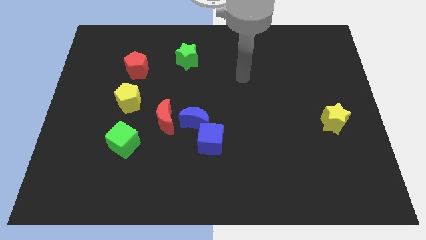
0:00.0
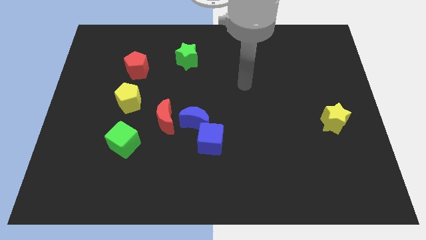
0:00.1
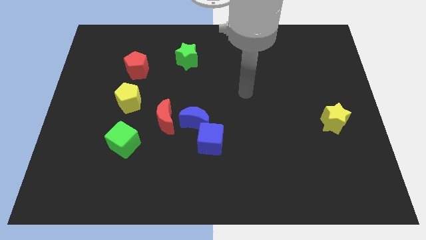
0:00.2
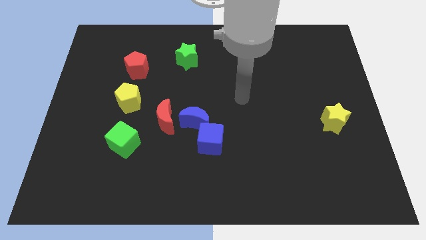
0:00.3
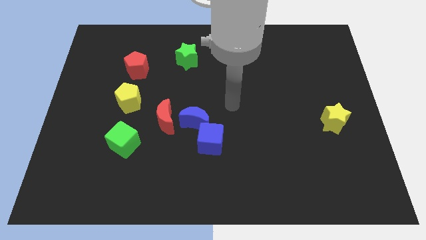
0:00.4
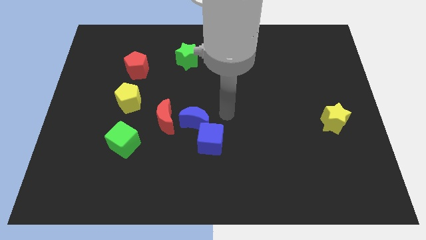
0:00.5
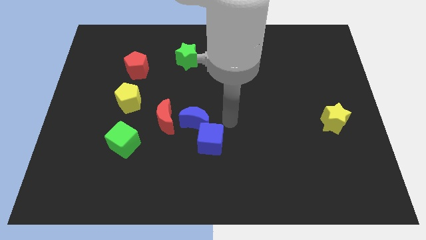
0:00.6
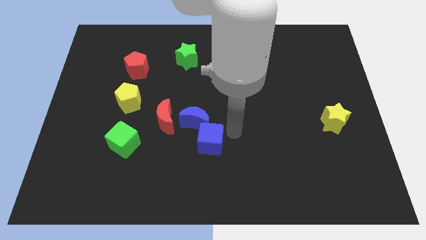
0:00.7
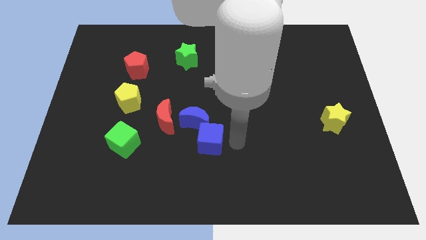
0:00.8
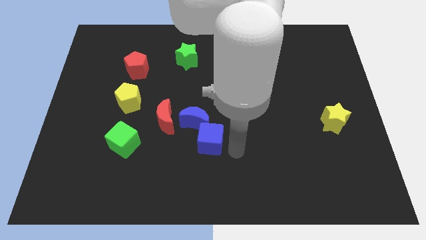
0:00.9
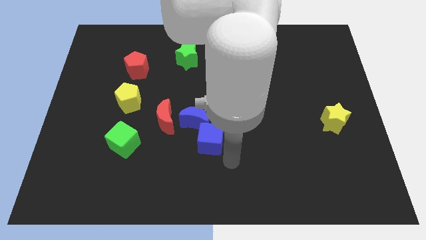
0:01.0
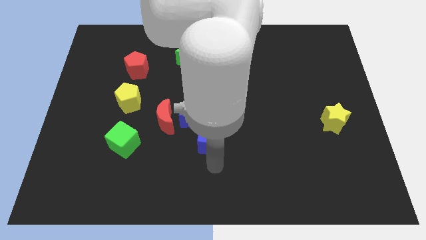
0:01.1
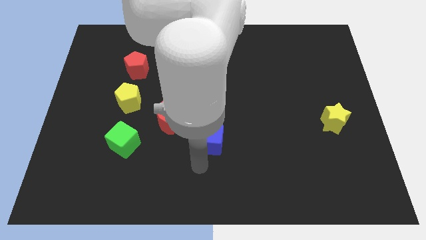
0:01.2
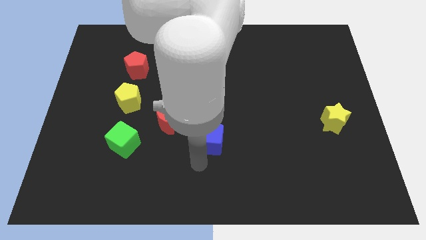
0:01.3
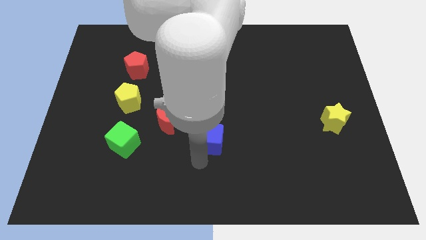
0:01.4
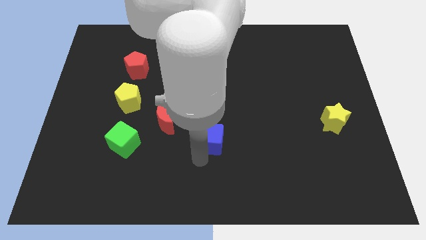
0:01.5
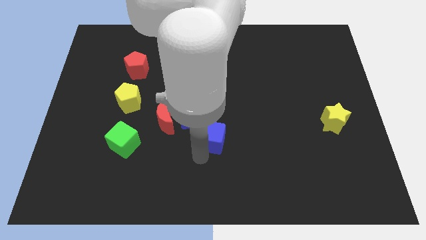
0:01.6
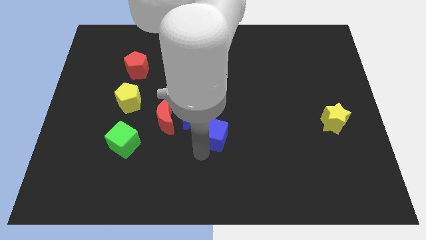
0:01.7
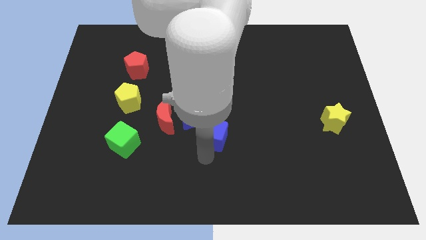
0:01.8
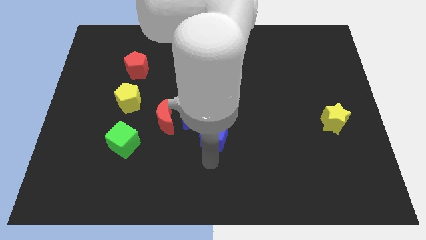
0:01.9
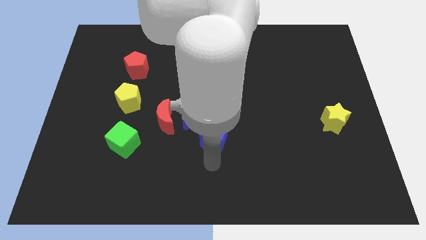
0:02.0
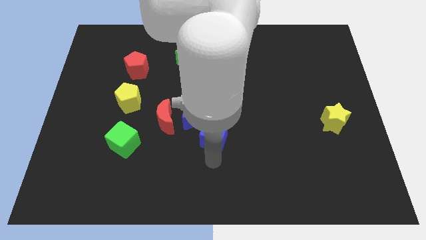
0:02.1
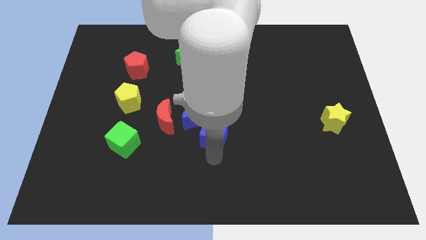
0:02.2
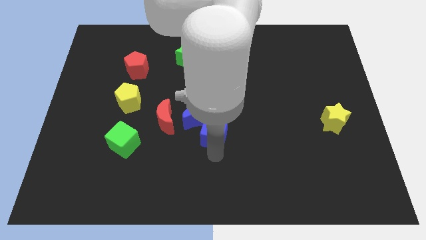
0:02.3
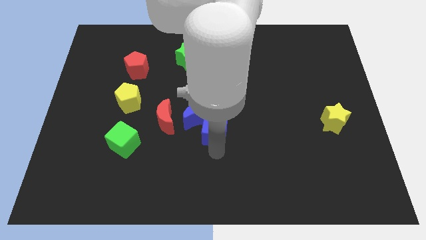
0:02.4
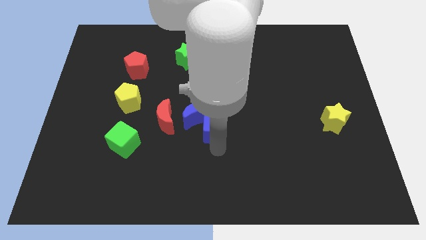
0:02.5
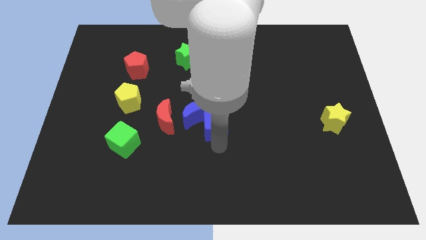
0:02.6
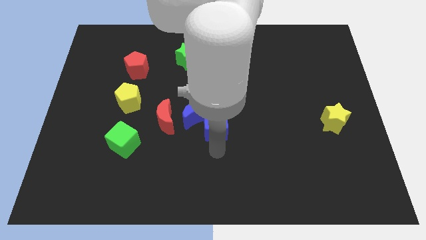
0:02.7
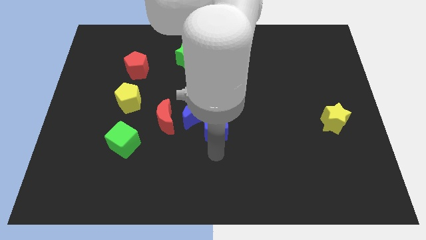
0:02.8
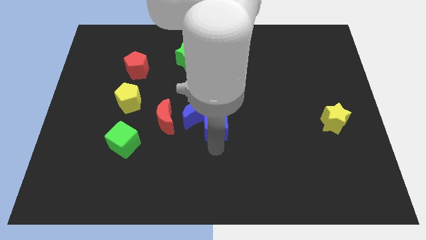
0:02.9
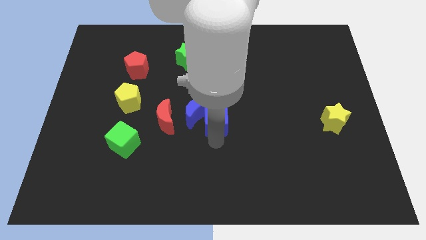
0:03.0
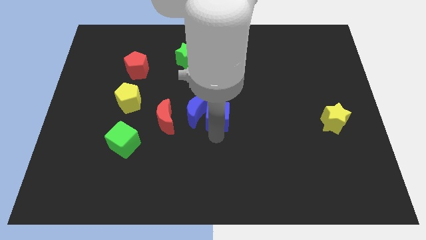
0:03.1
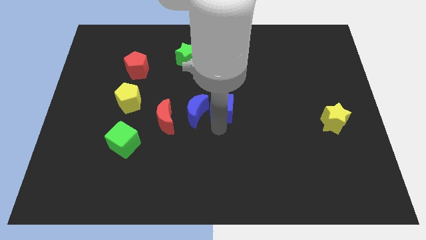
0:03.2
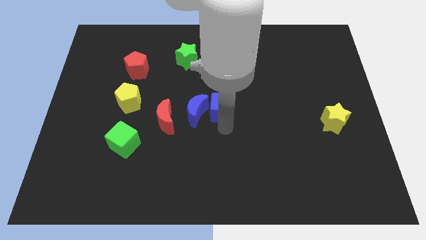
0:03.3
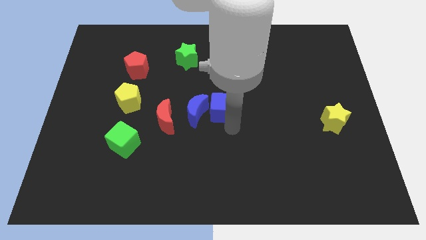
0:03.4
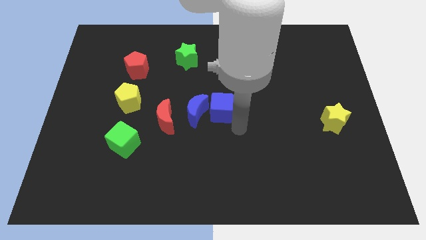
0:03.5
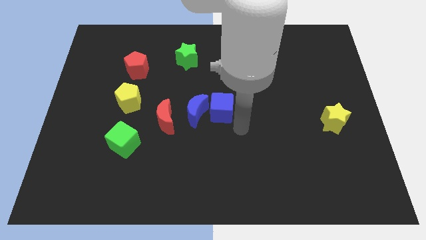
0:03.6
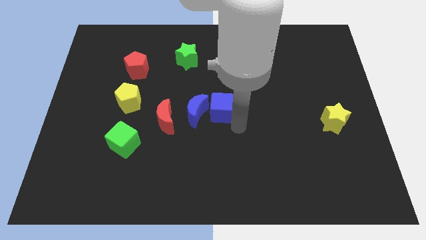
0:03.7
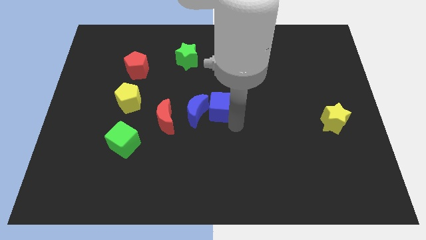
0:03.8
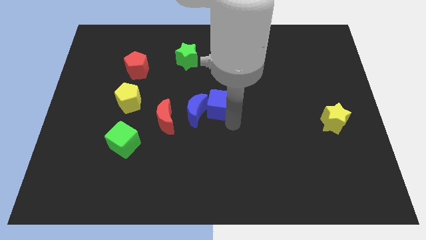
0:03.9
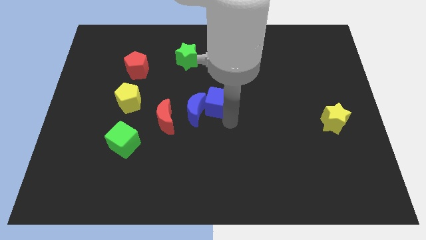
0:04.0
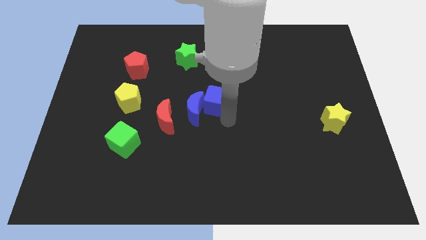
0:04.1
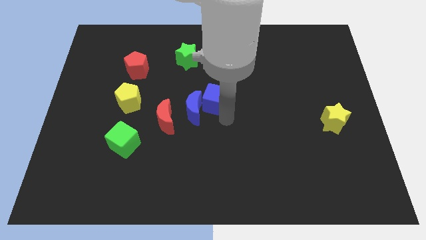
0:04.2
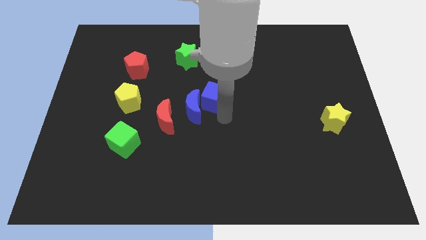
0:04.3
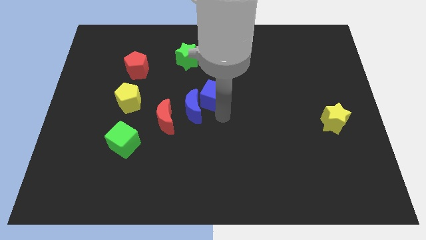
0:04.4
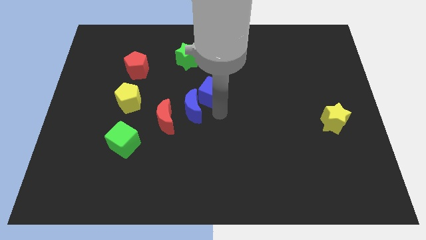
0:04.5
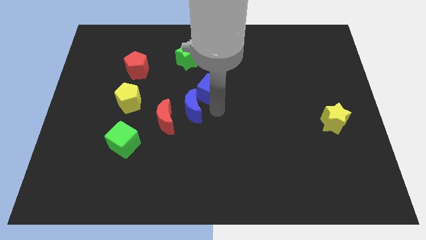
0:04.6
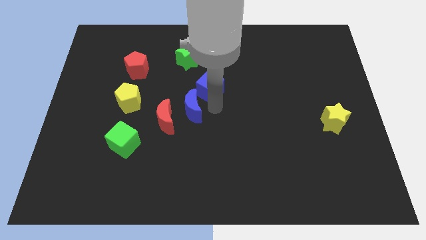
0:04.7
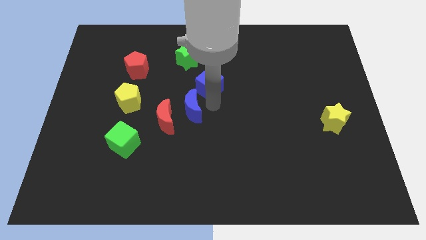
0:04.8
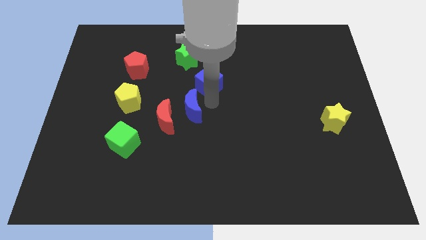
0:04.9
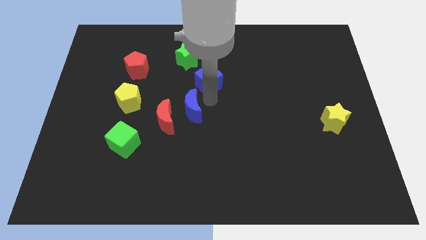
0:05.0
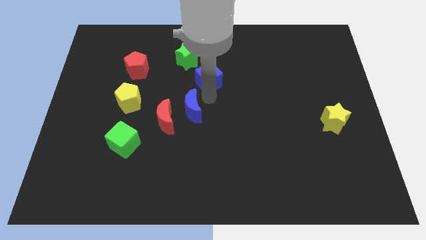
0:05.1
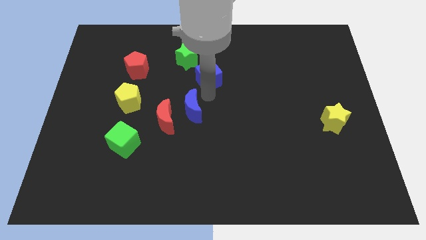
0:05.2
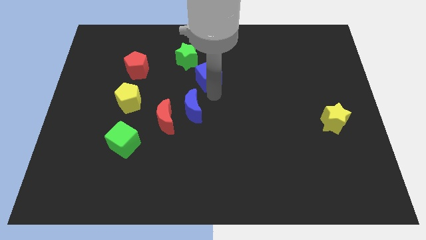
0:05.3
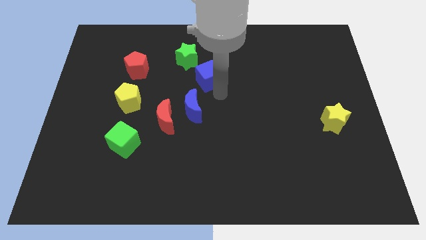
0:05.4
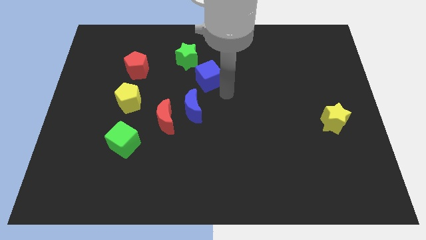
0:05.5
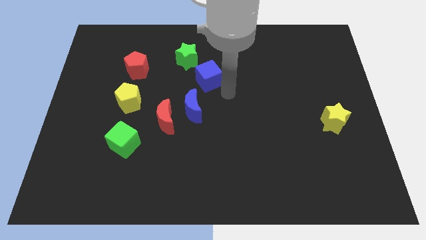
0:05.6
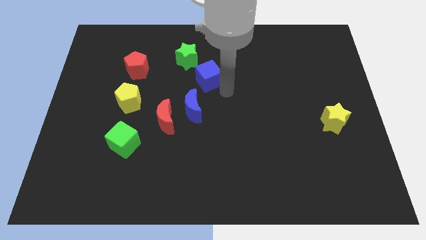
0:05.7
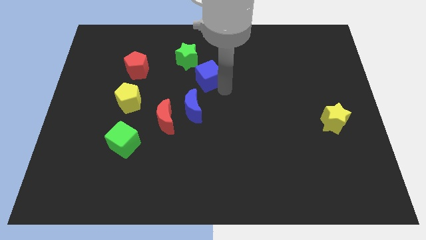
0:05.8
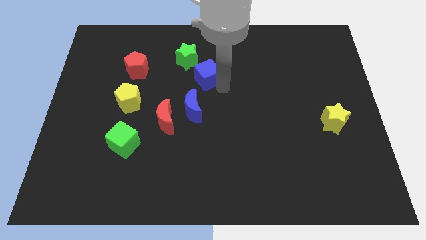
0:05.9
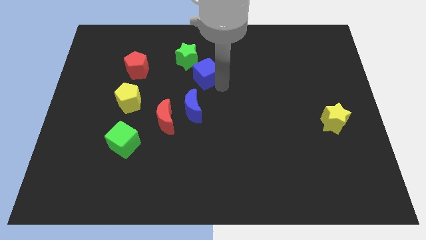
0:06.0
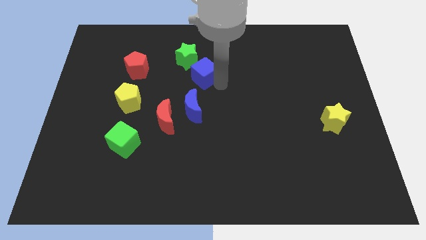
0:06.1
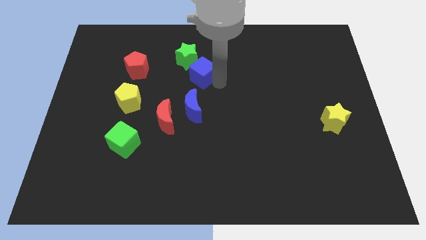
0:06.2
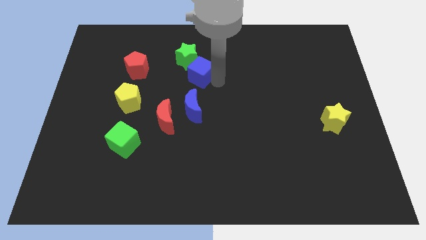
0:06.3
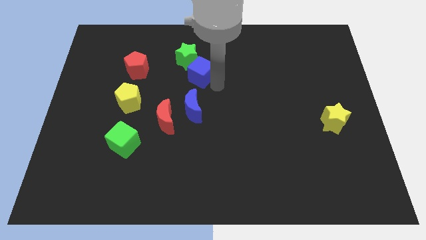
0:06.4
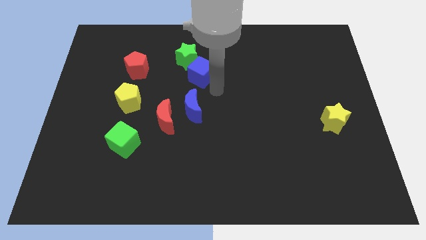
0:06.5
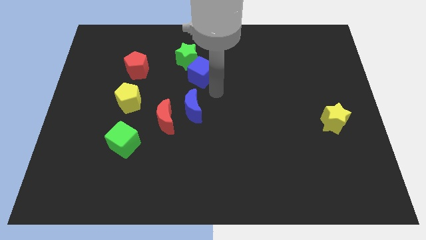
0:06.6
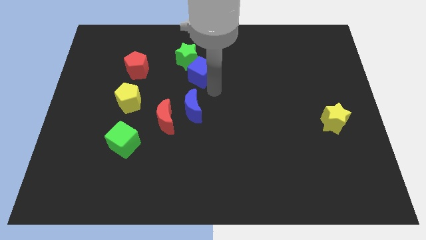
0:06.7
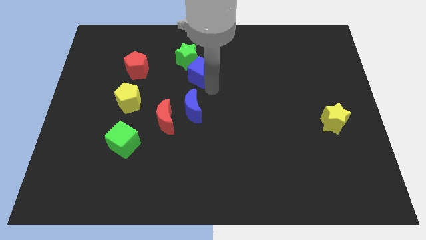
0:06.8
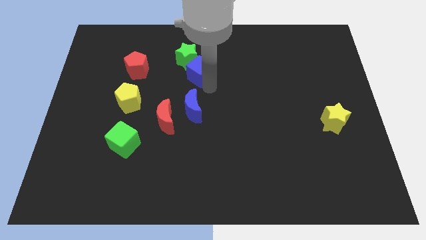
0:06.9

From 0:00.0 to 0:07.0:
push the blue cube next to the green star

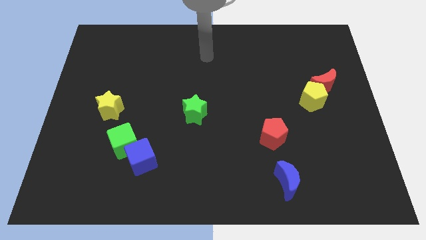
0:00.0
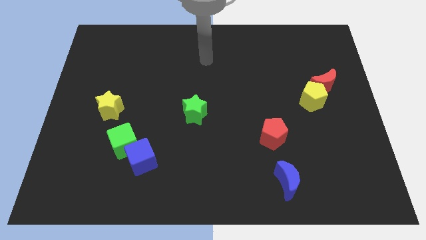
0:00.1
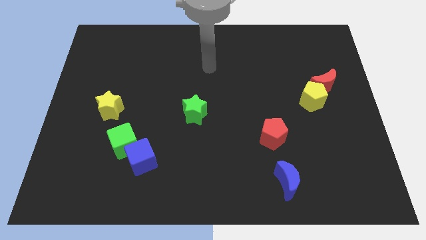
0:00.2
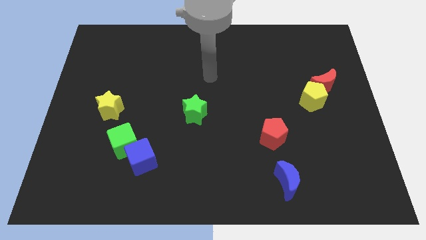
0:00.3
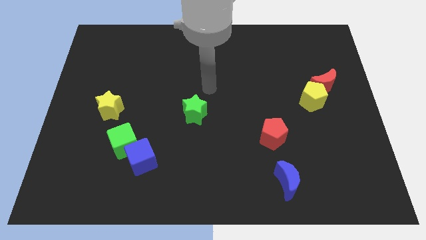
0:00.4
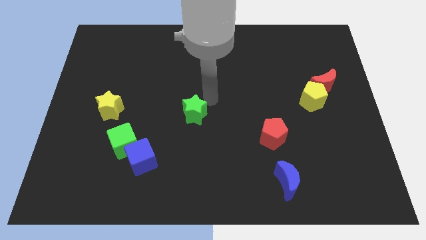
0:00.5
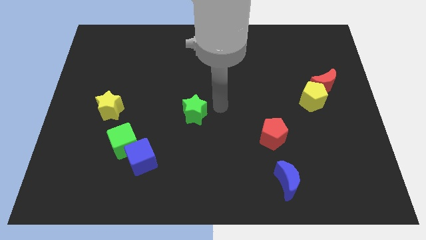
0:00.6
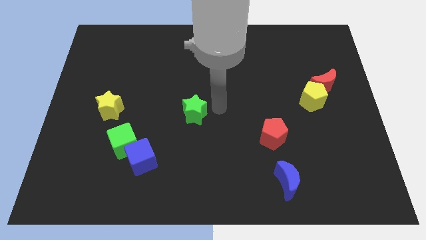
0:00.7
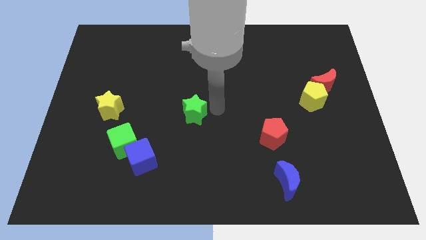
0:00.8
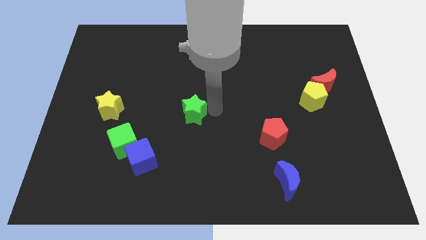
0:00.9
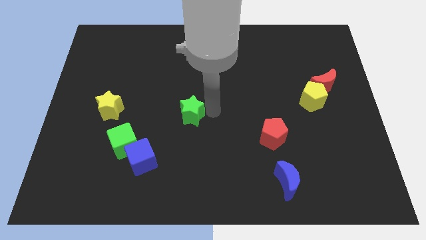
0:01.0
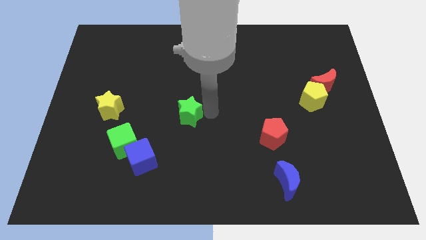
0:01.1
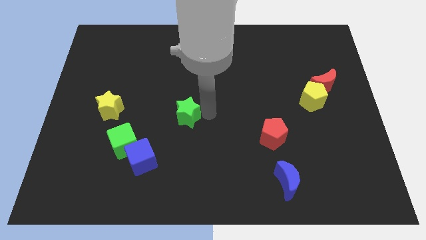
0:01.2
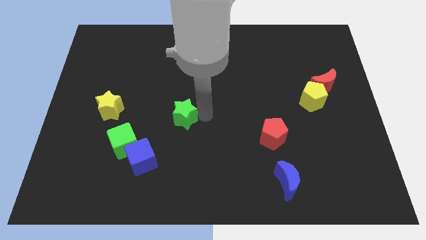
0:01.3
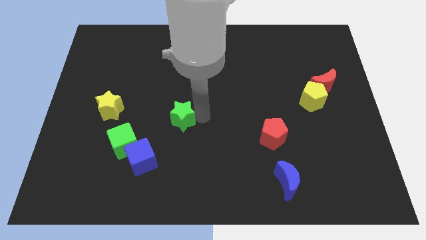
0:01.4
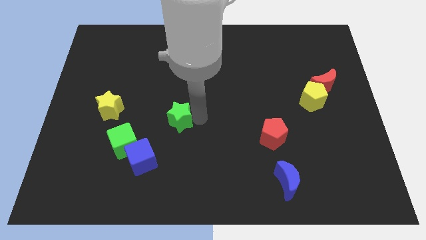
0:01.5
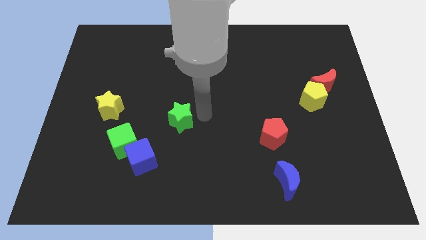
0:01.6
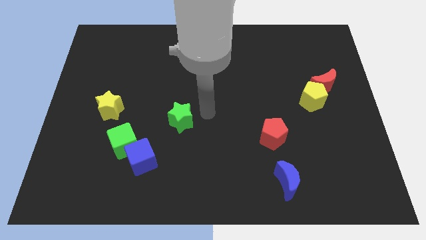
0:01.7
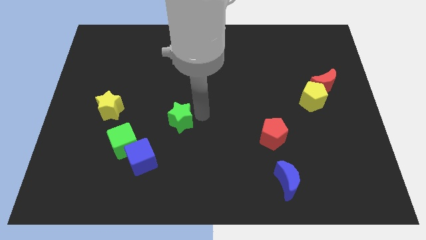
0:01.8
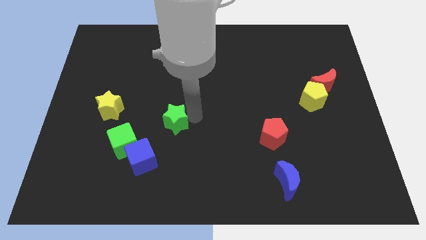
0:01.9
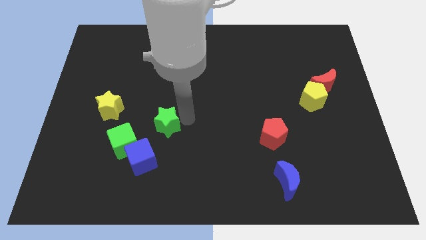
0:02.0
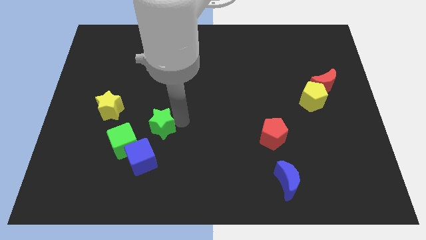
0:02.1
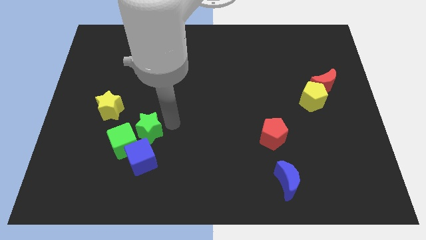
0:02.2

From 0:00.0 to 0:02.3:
push the green star to the green cube
